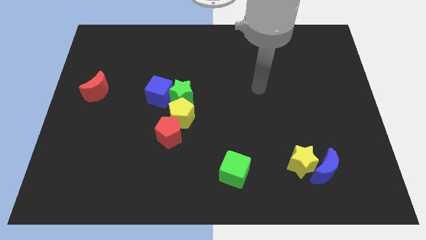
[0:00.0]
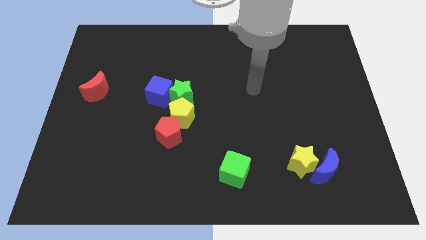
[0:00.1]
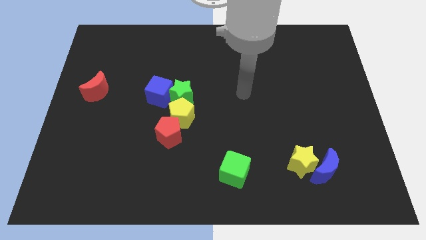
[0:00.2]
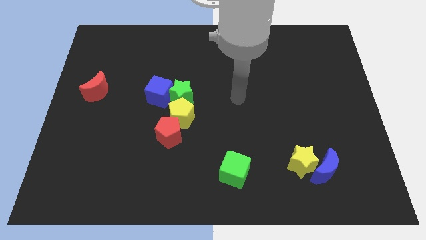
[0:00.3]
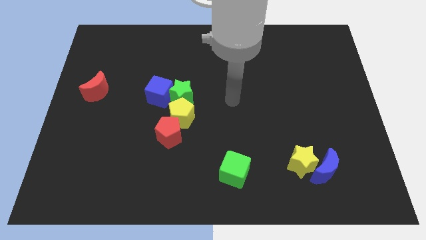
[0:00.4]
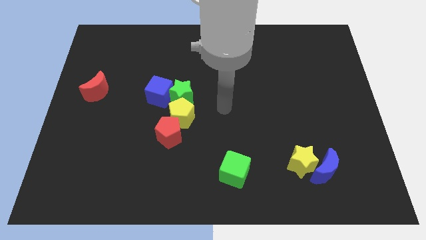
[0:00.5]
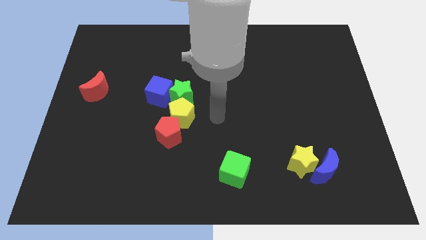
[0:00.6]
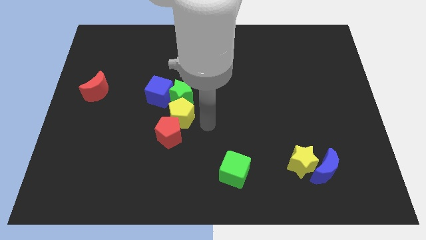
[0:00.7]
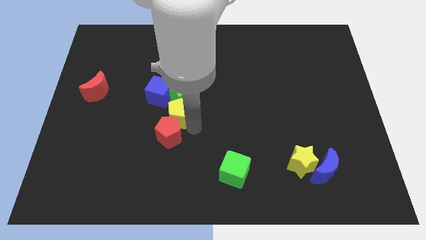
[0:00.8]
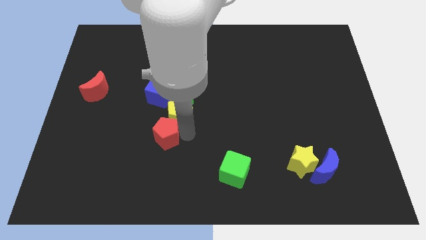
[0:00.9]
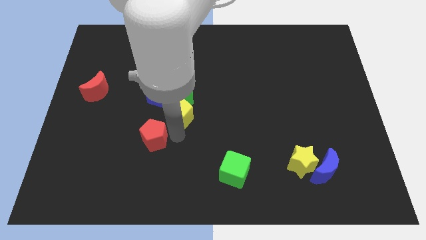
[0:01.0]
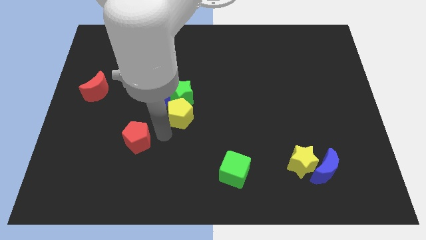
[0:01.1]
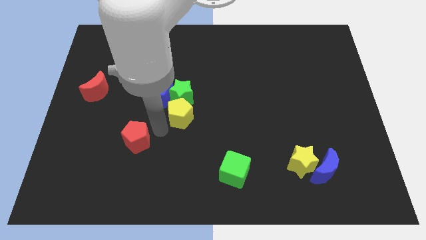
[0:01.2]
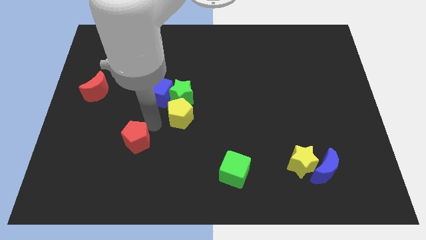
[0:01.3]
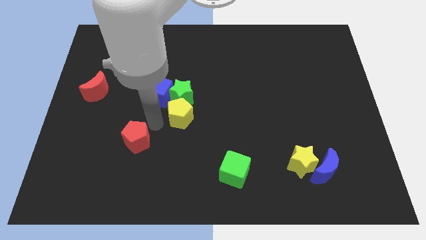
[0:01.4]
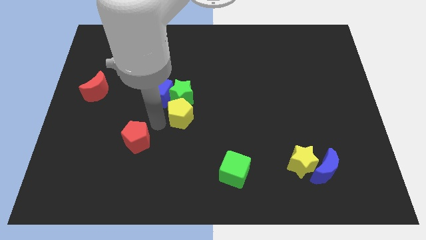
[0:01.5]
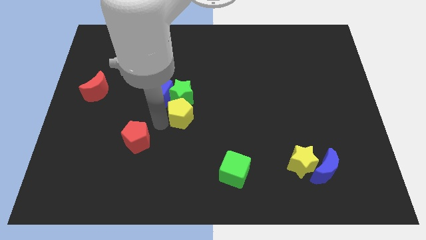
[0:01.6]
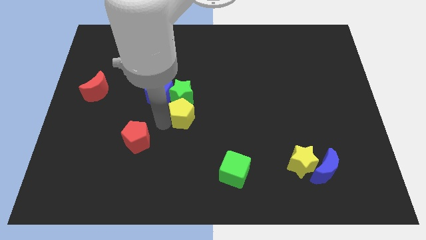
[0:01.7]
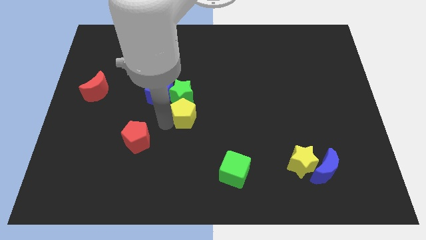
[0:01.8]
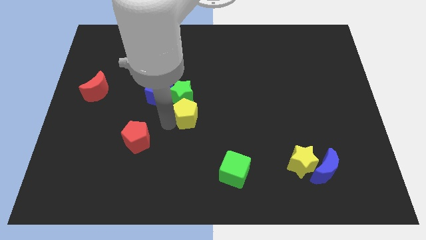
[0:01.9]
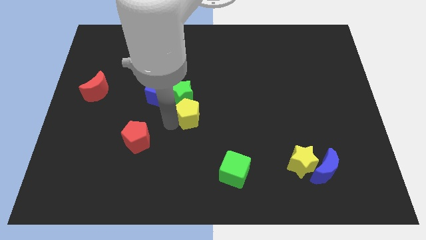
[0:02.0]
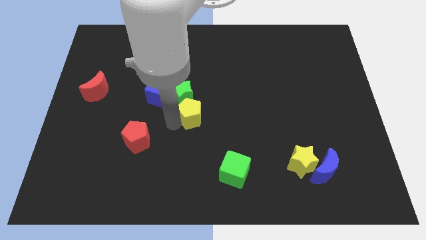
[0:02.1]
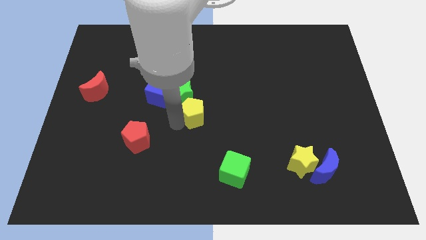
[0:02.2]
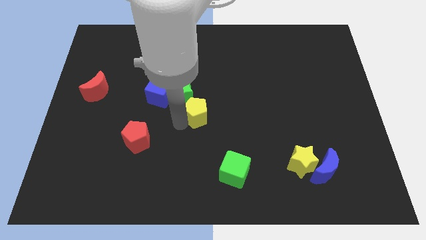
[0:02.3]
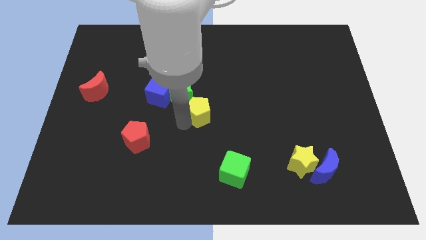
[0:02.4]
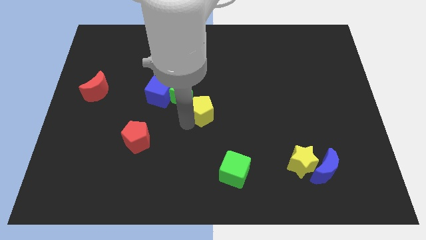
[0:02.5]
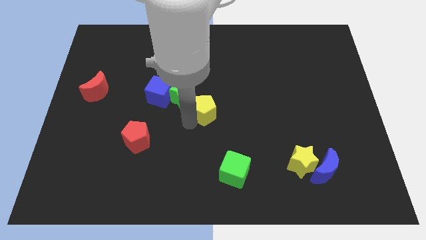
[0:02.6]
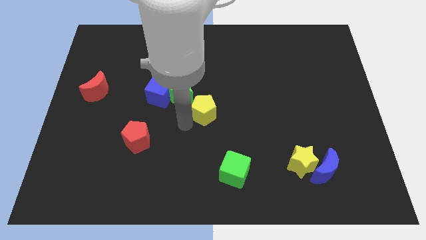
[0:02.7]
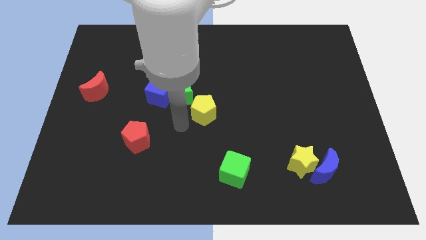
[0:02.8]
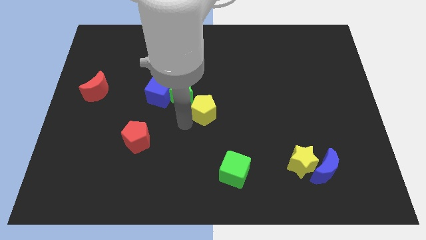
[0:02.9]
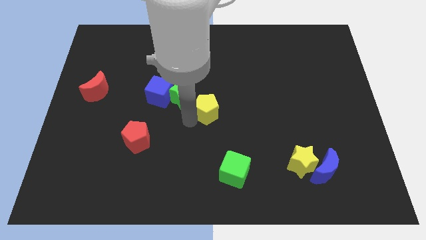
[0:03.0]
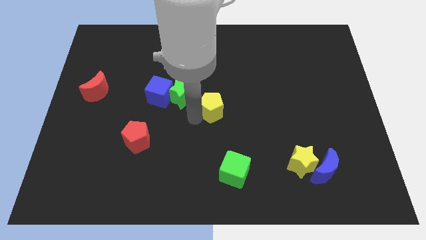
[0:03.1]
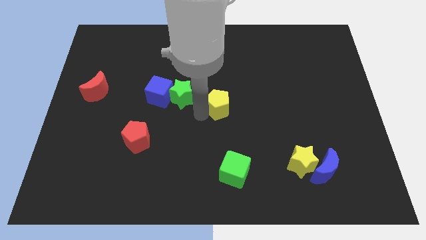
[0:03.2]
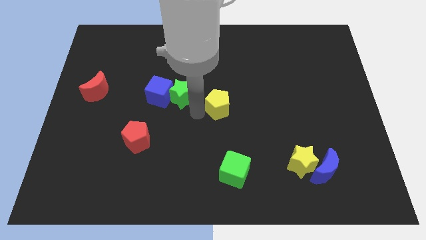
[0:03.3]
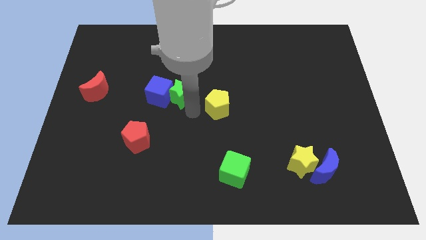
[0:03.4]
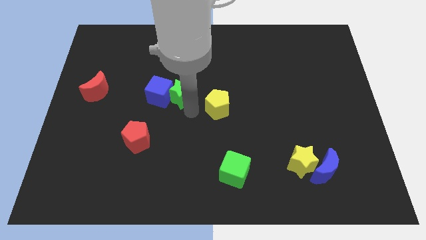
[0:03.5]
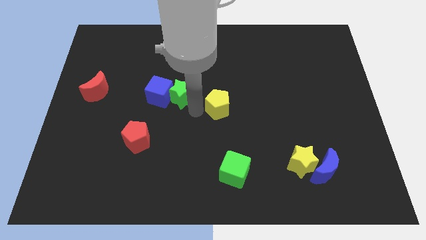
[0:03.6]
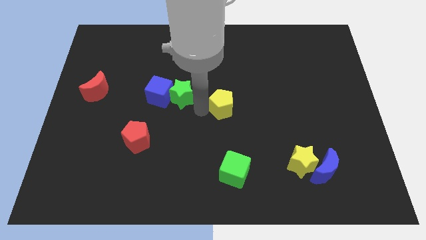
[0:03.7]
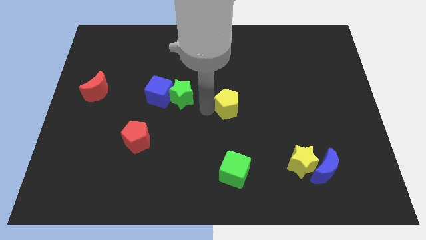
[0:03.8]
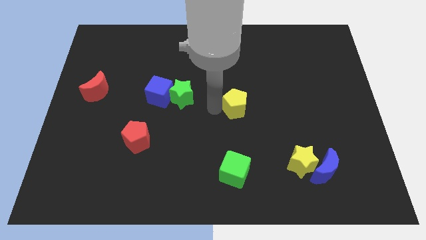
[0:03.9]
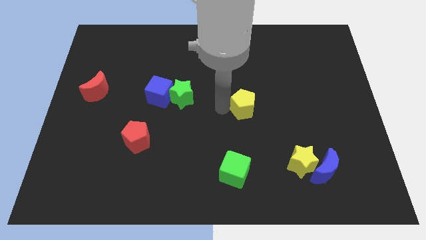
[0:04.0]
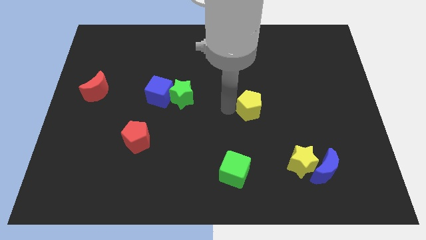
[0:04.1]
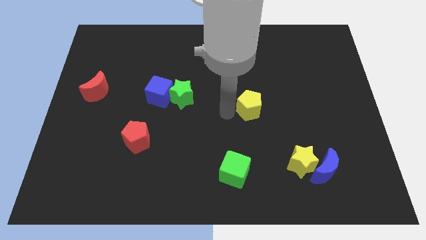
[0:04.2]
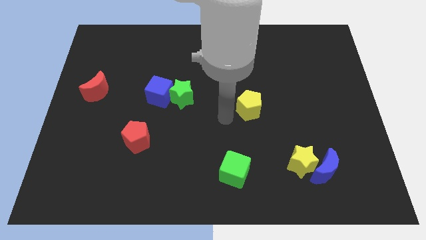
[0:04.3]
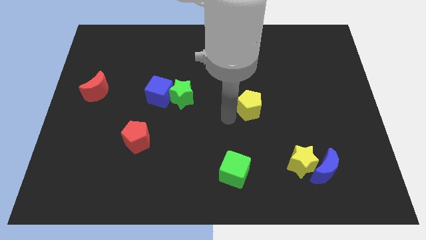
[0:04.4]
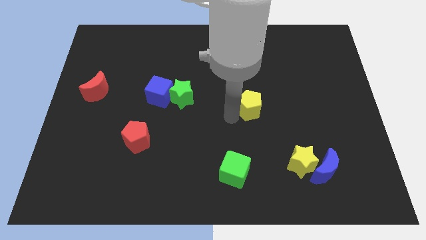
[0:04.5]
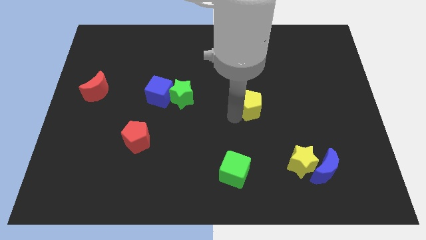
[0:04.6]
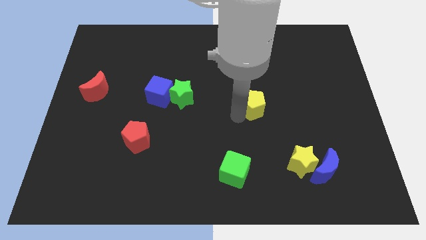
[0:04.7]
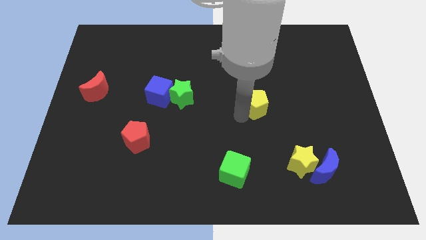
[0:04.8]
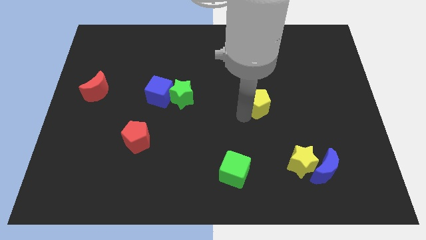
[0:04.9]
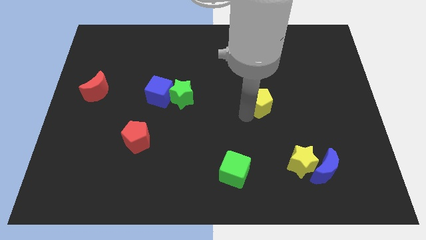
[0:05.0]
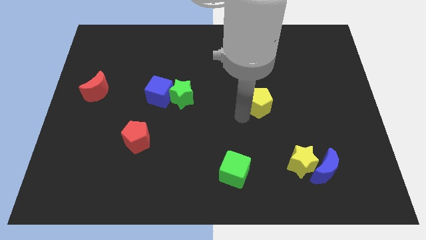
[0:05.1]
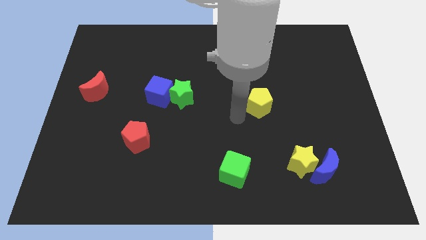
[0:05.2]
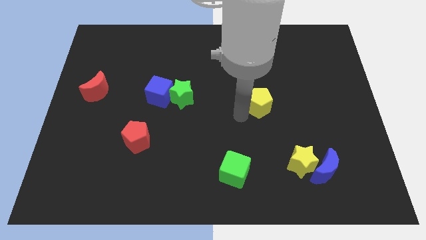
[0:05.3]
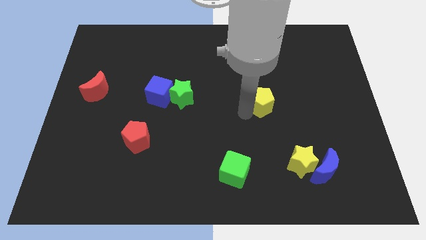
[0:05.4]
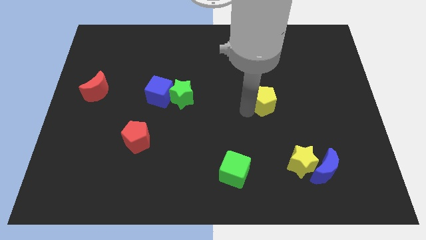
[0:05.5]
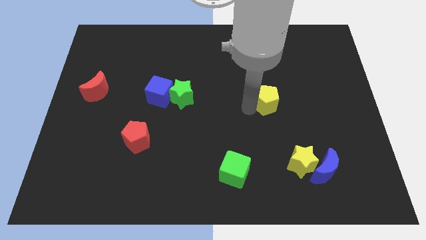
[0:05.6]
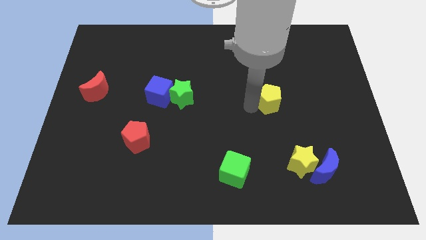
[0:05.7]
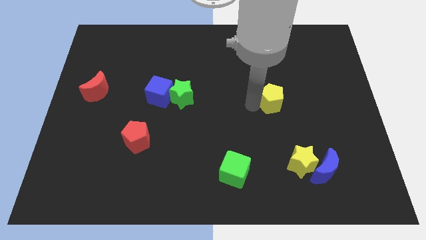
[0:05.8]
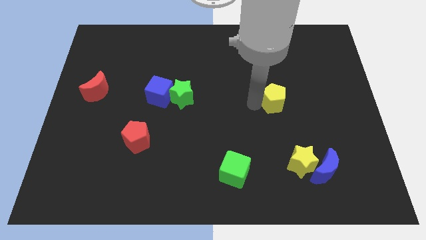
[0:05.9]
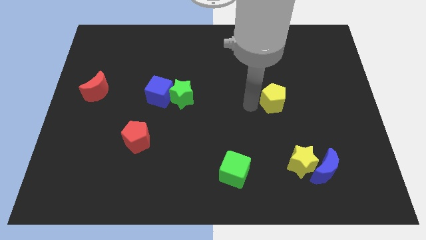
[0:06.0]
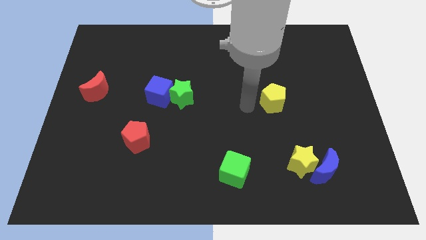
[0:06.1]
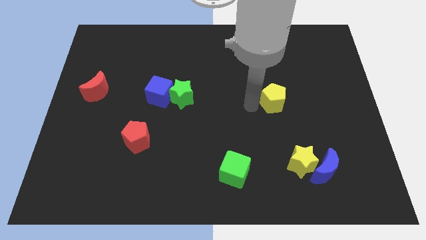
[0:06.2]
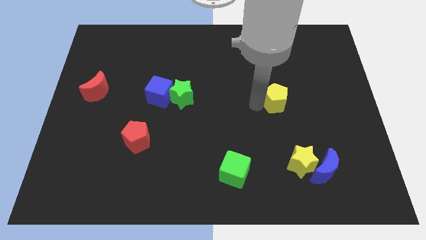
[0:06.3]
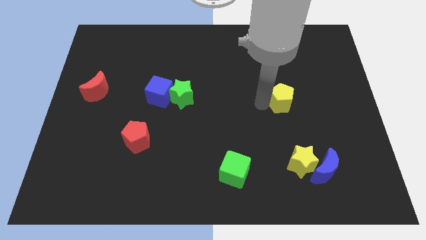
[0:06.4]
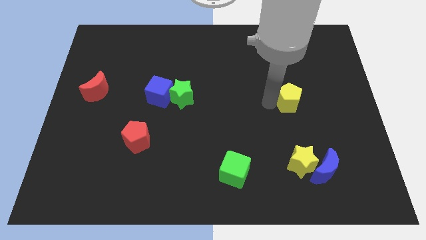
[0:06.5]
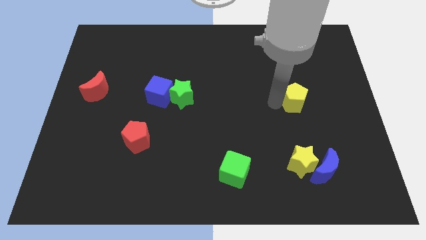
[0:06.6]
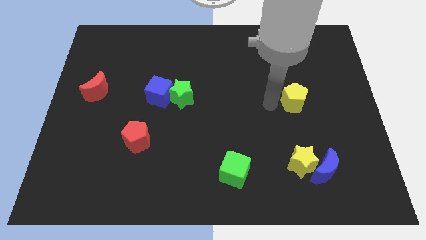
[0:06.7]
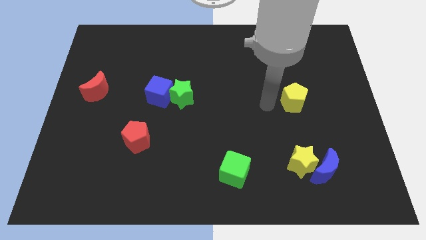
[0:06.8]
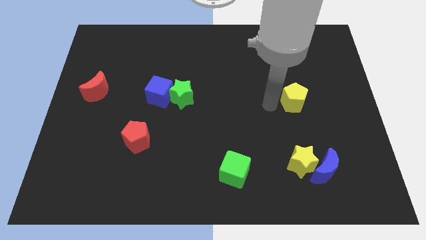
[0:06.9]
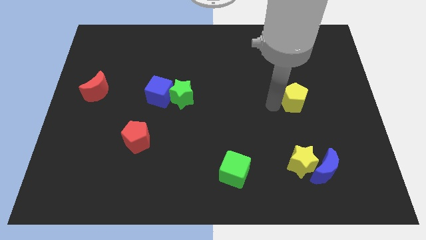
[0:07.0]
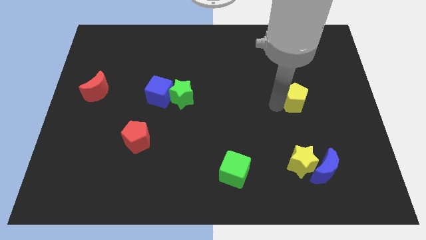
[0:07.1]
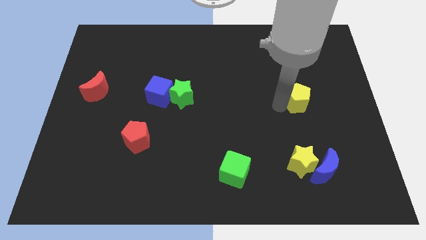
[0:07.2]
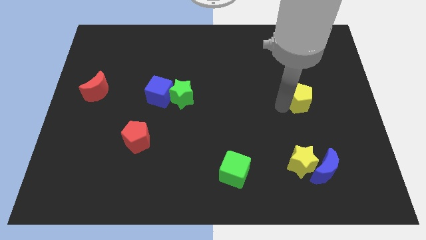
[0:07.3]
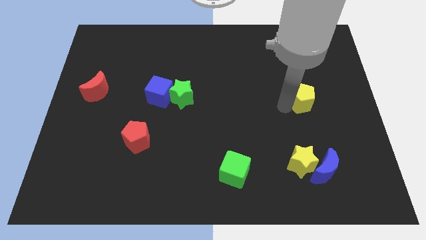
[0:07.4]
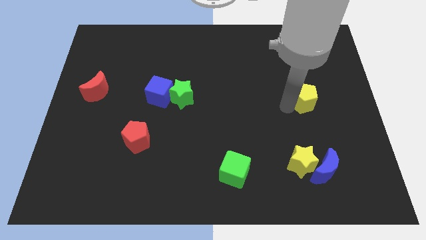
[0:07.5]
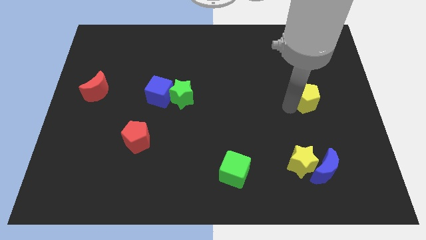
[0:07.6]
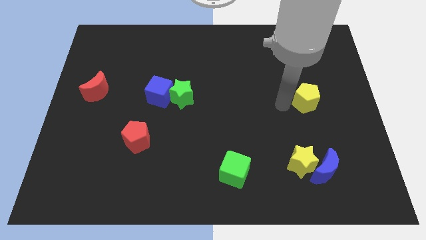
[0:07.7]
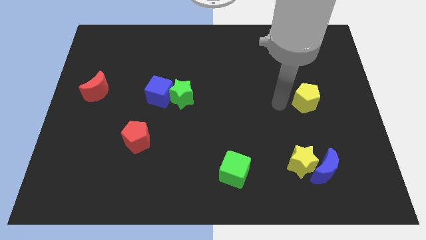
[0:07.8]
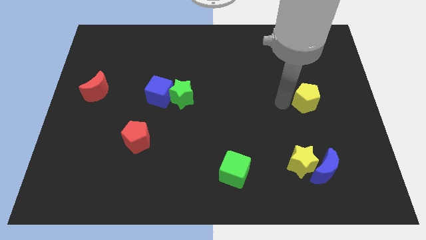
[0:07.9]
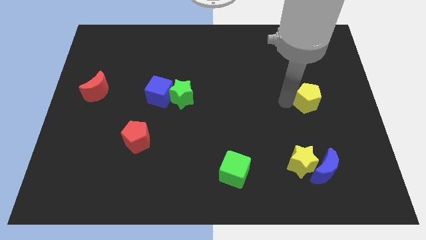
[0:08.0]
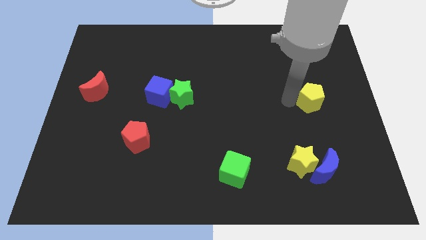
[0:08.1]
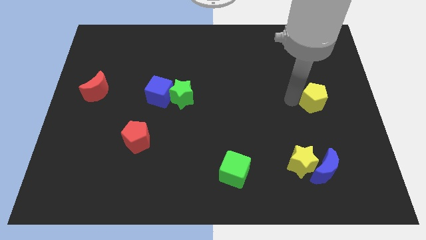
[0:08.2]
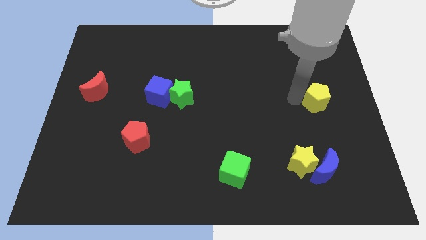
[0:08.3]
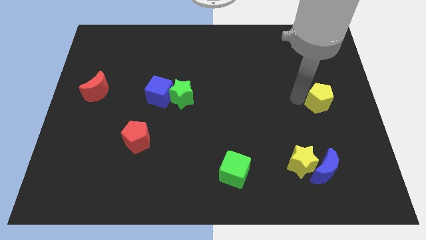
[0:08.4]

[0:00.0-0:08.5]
put the yellow pentagon to the right side
